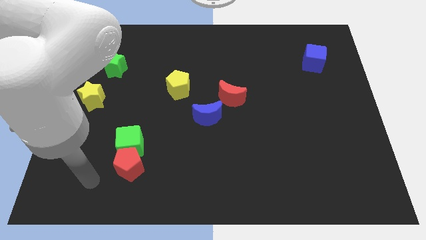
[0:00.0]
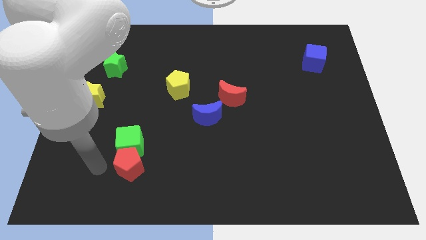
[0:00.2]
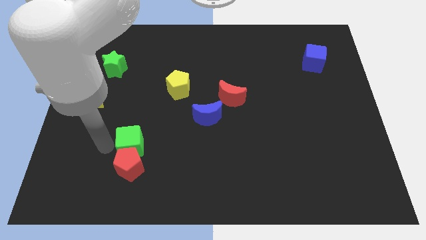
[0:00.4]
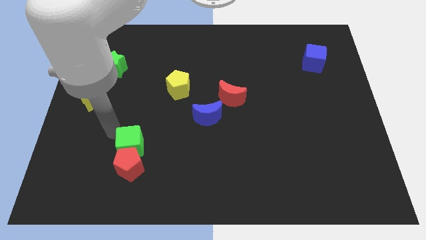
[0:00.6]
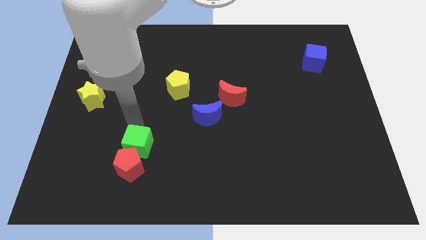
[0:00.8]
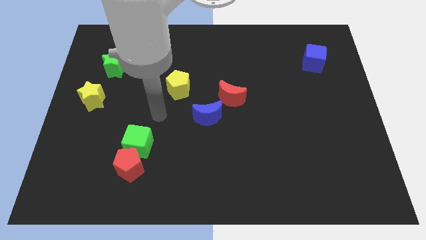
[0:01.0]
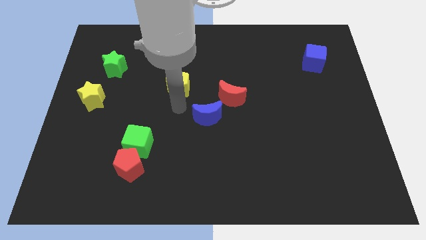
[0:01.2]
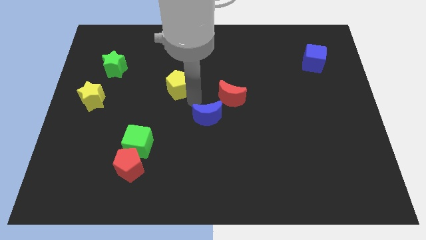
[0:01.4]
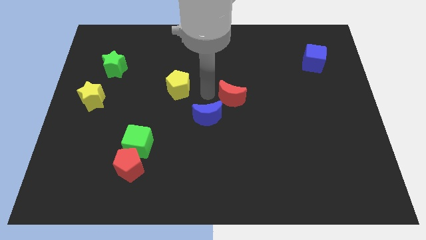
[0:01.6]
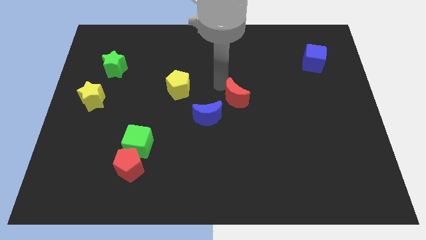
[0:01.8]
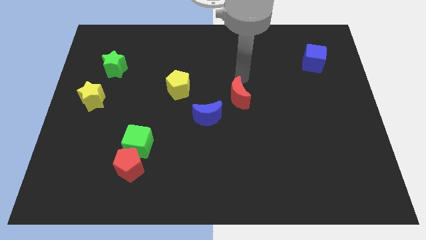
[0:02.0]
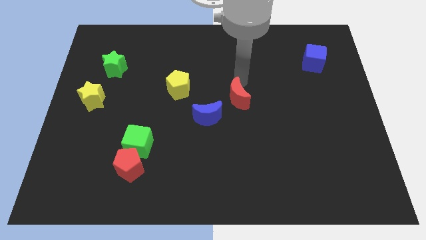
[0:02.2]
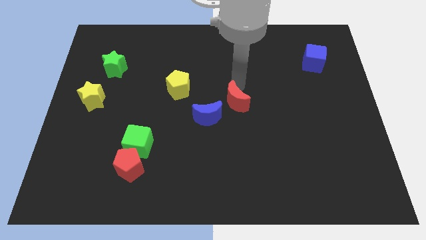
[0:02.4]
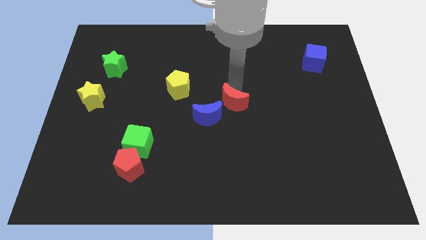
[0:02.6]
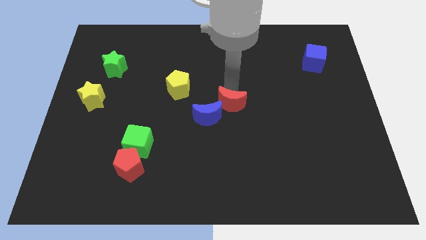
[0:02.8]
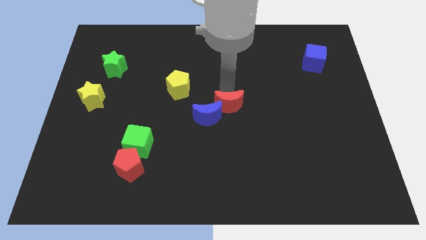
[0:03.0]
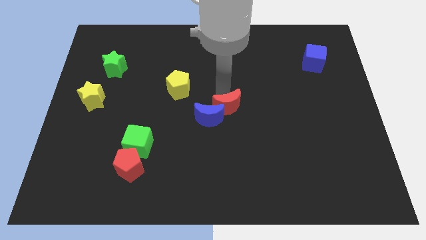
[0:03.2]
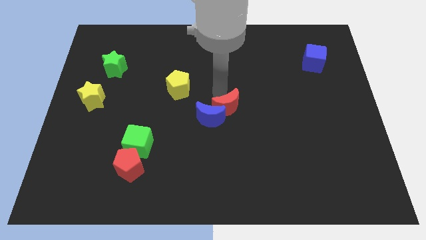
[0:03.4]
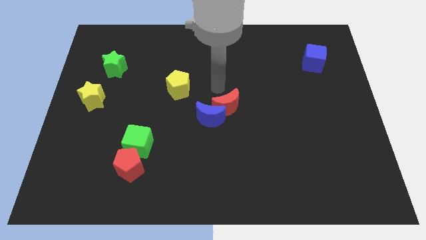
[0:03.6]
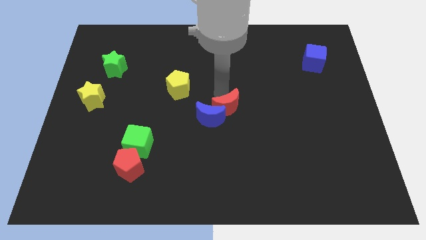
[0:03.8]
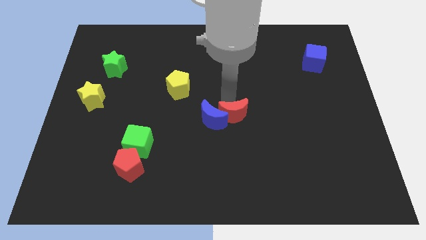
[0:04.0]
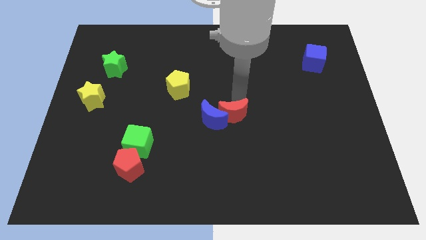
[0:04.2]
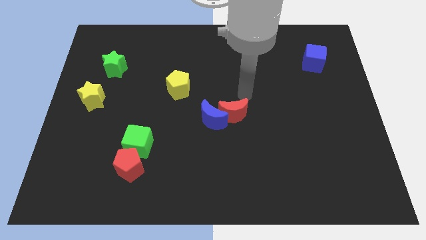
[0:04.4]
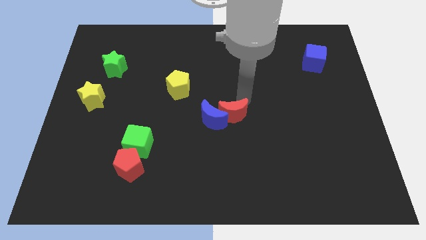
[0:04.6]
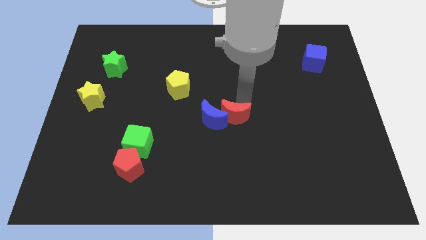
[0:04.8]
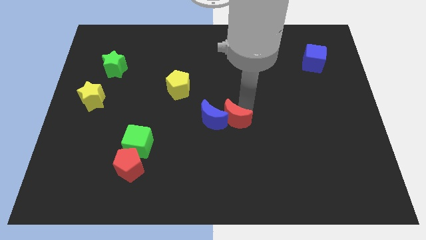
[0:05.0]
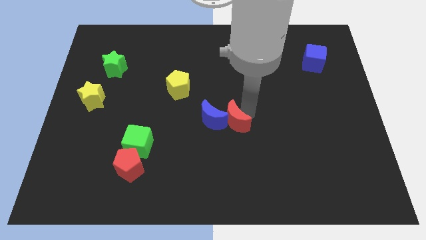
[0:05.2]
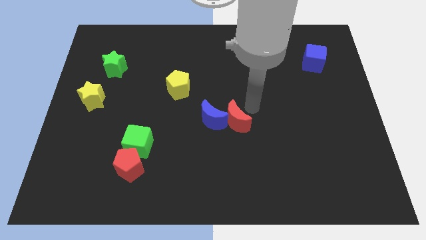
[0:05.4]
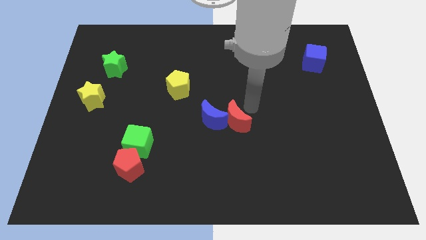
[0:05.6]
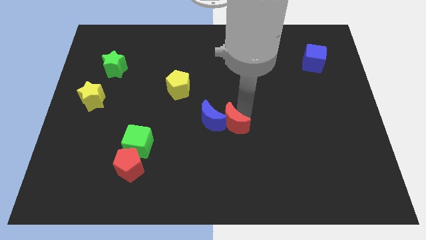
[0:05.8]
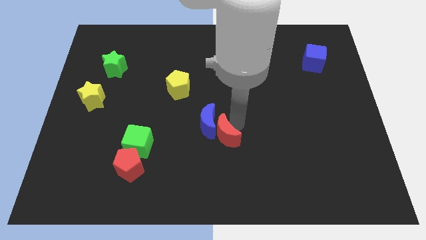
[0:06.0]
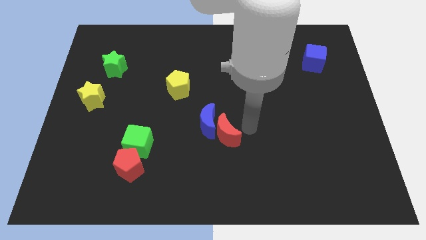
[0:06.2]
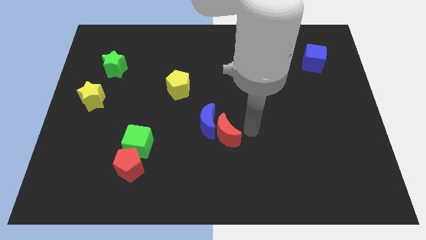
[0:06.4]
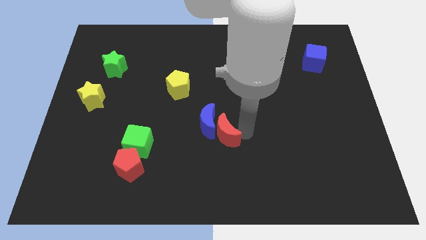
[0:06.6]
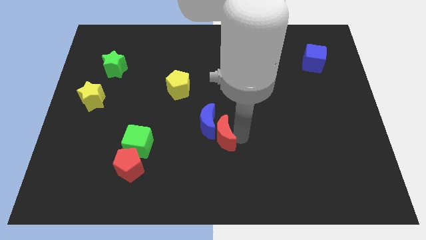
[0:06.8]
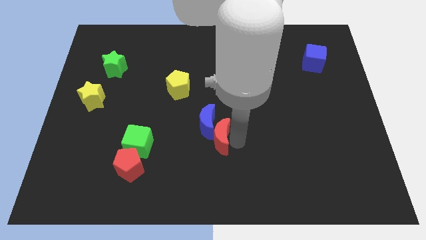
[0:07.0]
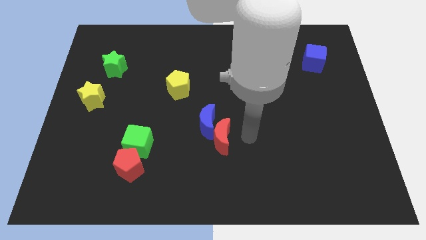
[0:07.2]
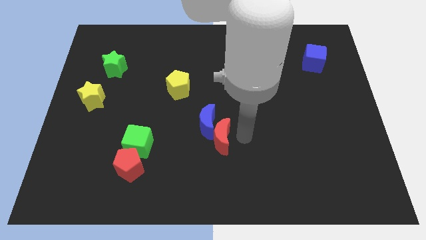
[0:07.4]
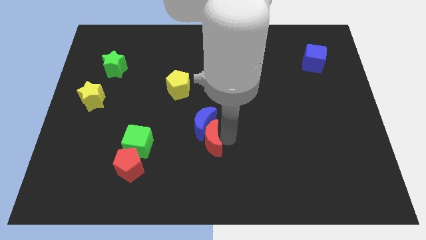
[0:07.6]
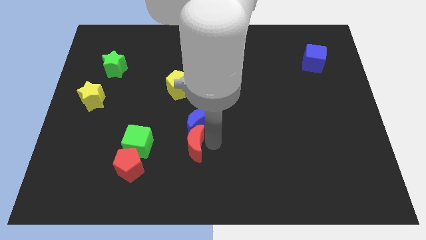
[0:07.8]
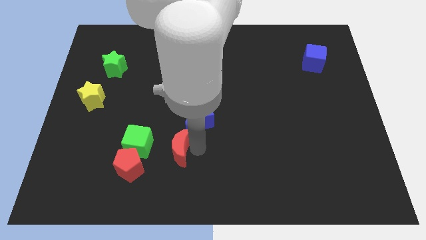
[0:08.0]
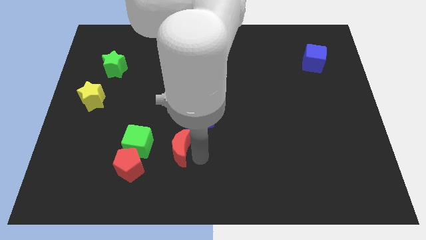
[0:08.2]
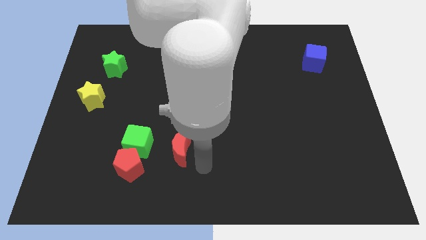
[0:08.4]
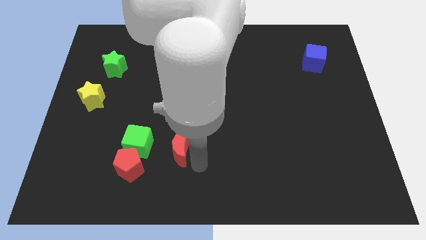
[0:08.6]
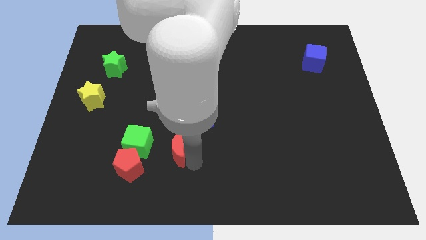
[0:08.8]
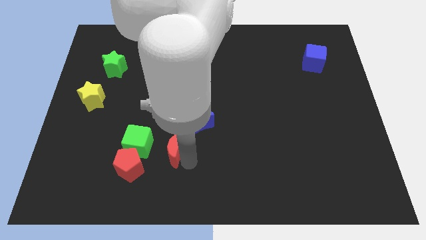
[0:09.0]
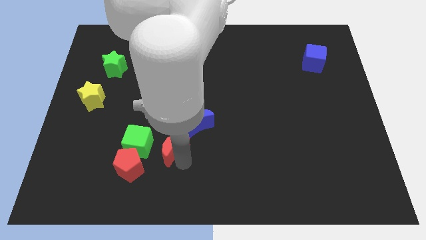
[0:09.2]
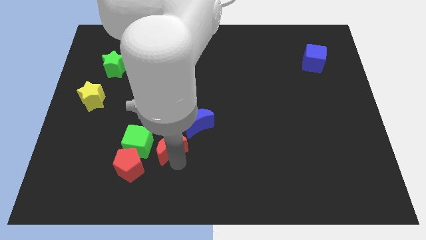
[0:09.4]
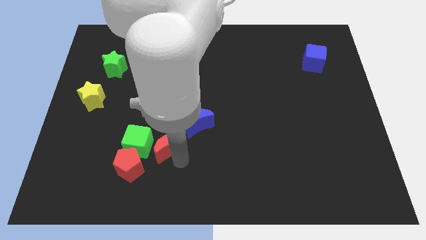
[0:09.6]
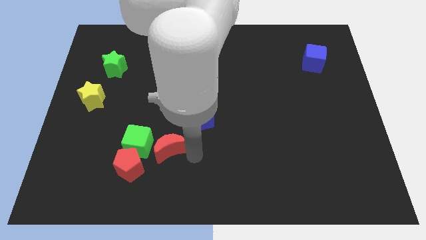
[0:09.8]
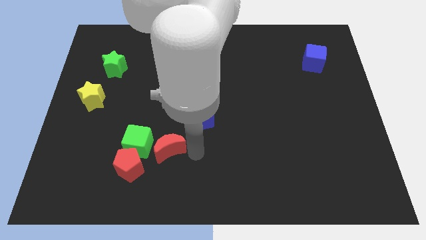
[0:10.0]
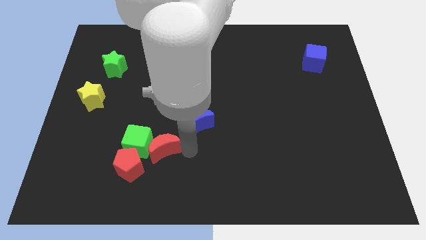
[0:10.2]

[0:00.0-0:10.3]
push the red moon close to the green cube

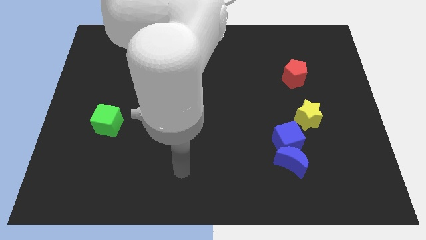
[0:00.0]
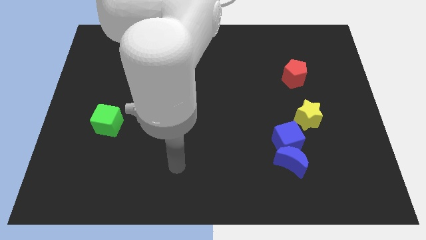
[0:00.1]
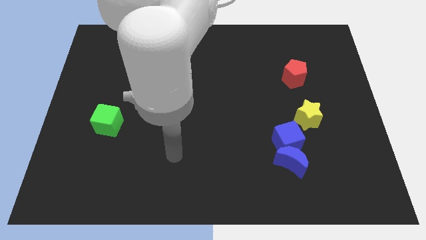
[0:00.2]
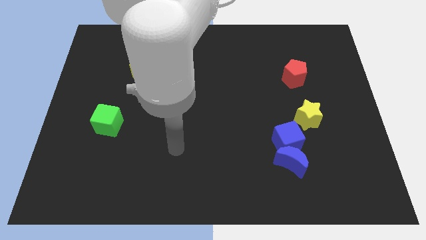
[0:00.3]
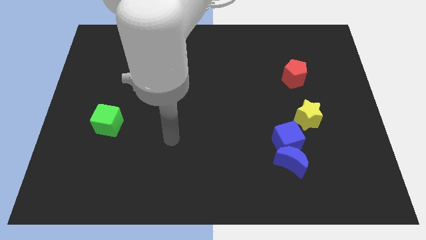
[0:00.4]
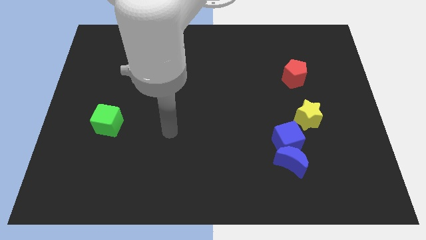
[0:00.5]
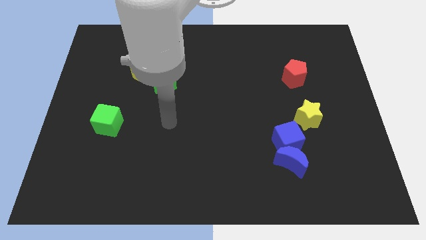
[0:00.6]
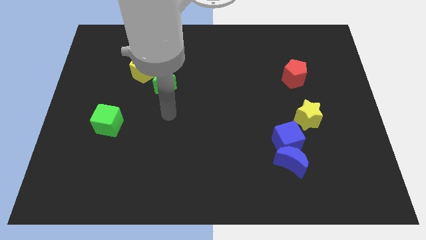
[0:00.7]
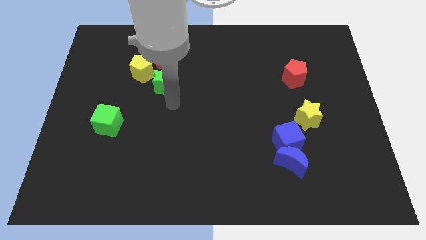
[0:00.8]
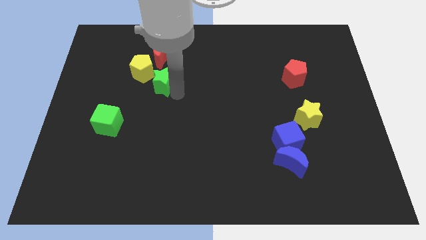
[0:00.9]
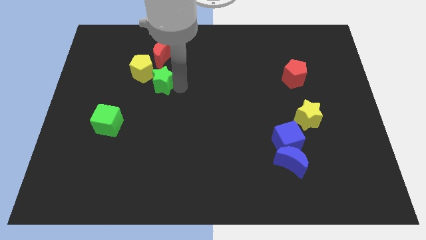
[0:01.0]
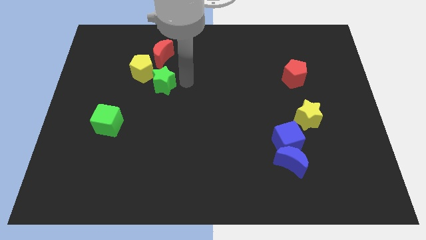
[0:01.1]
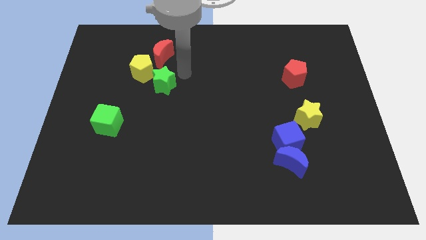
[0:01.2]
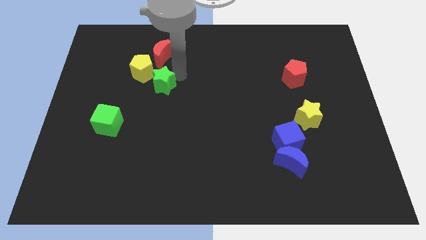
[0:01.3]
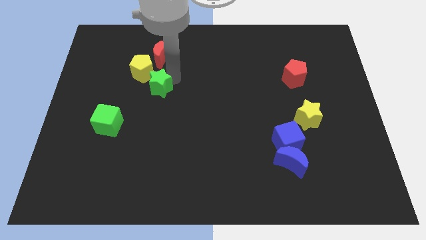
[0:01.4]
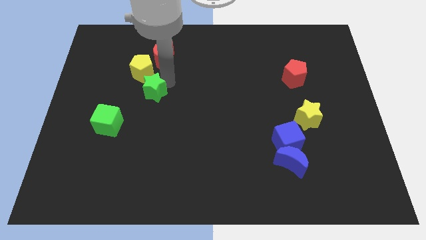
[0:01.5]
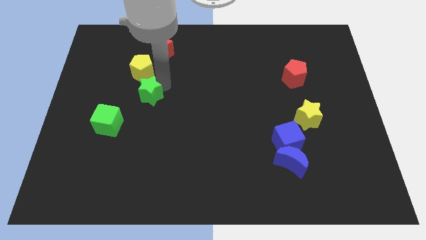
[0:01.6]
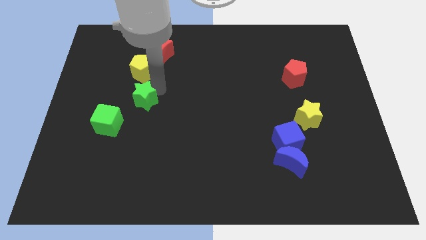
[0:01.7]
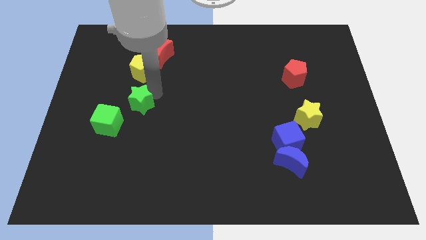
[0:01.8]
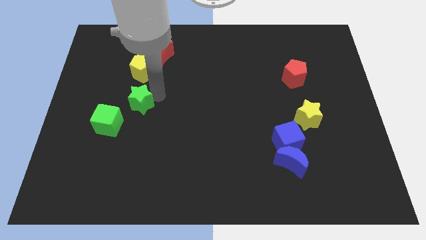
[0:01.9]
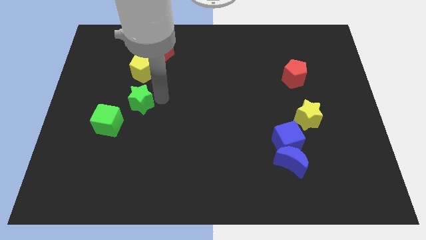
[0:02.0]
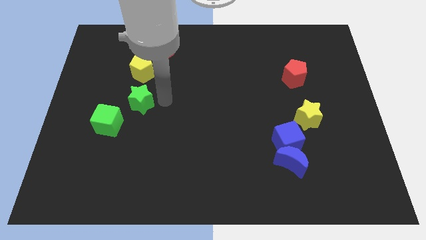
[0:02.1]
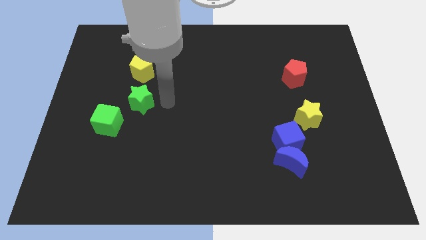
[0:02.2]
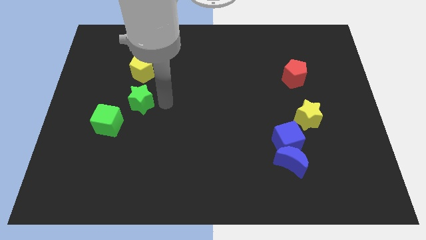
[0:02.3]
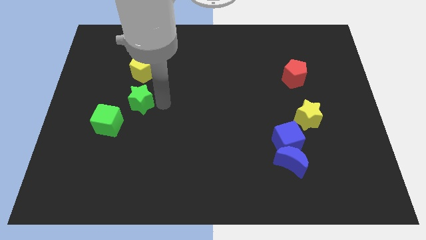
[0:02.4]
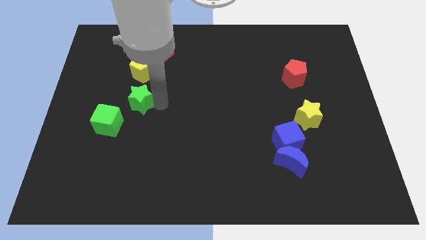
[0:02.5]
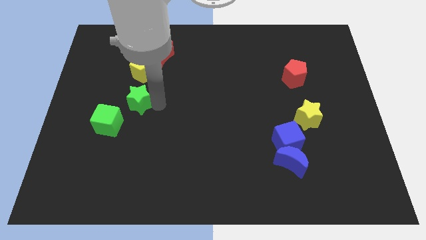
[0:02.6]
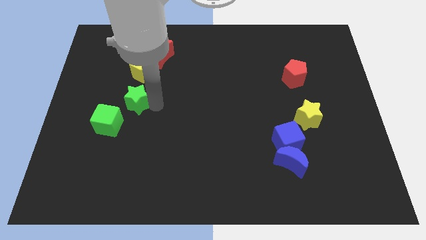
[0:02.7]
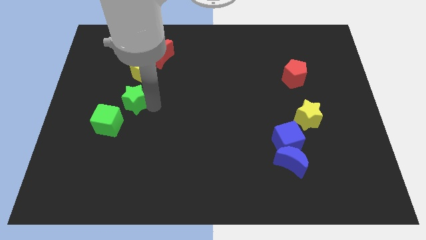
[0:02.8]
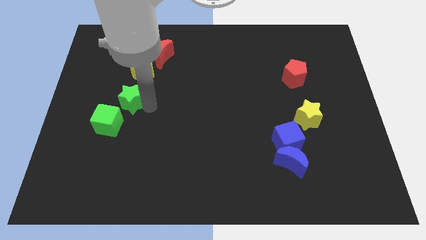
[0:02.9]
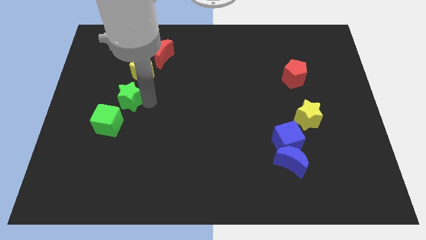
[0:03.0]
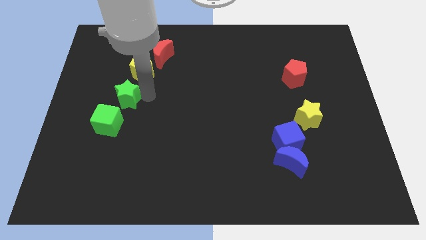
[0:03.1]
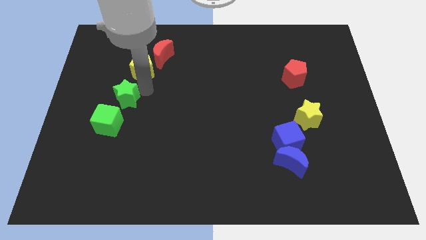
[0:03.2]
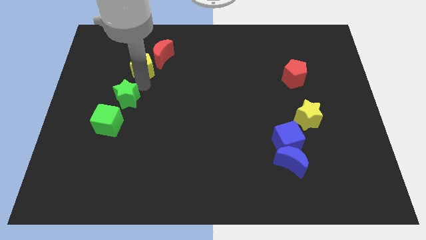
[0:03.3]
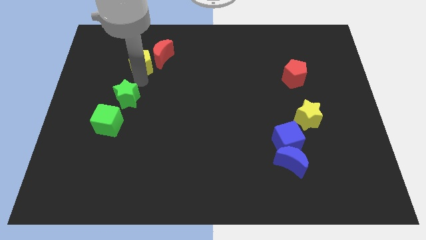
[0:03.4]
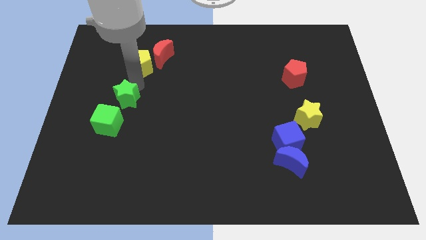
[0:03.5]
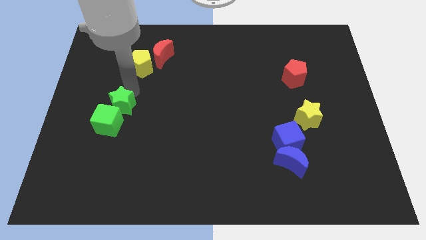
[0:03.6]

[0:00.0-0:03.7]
move the green star towards the green cube
